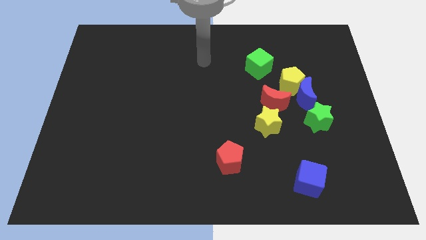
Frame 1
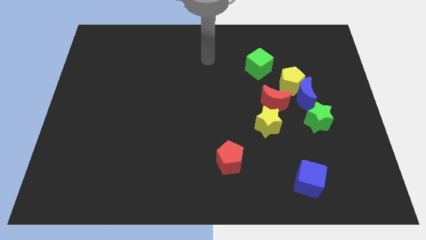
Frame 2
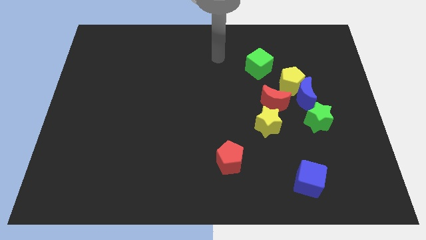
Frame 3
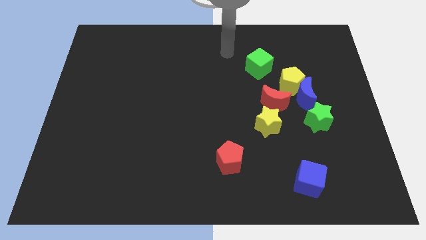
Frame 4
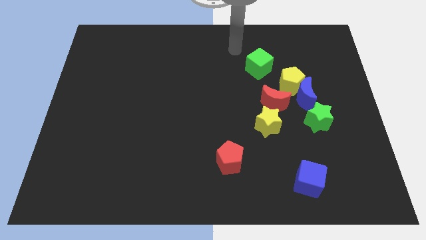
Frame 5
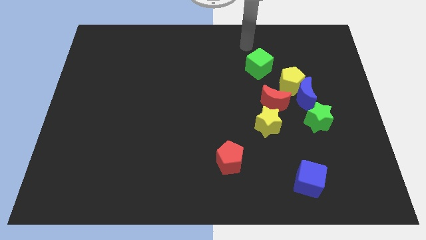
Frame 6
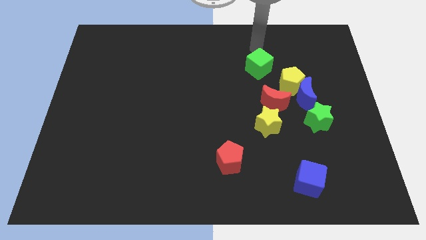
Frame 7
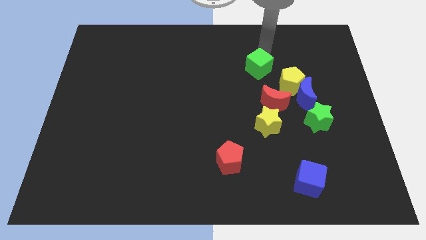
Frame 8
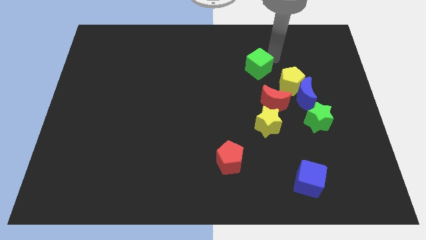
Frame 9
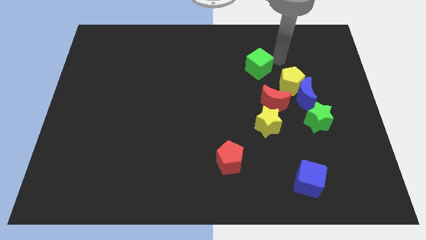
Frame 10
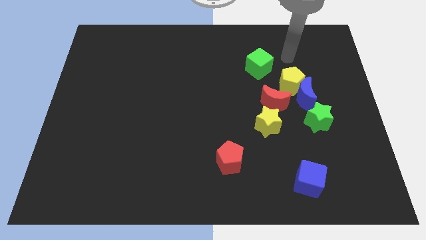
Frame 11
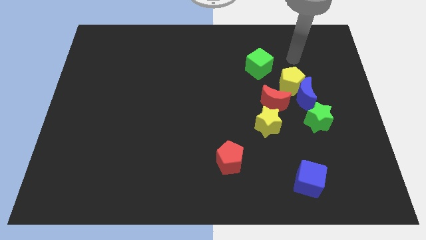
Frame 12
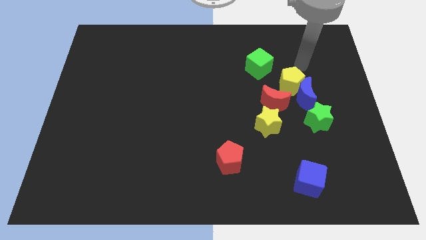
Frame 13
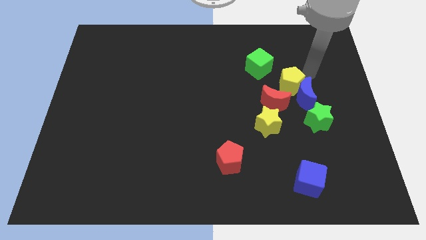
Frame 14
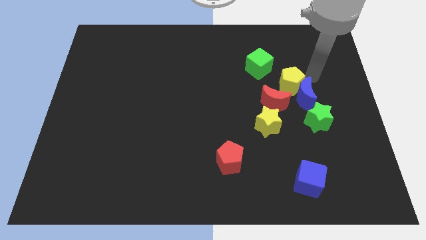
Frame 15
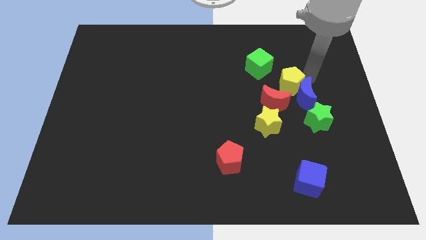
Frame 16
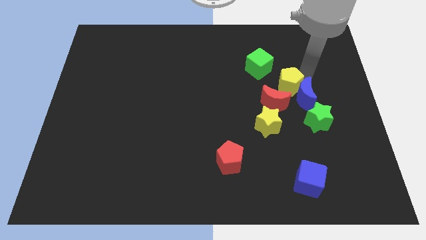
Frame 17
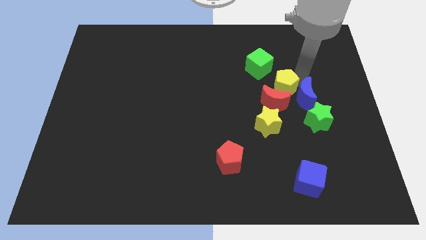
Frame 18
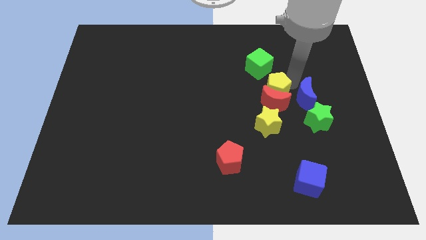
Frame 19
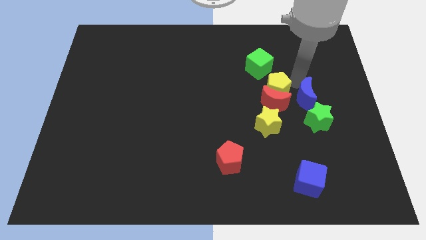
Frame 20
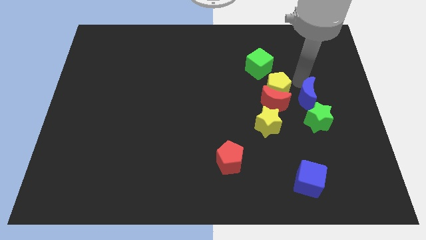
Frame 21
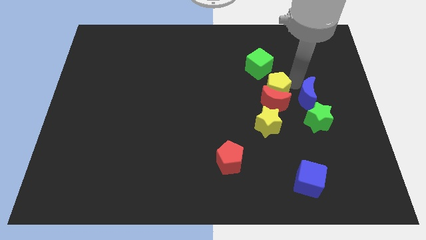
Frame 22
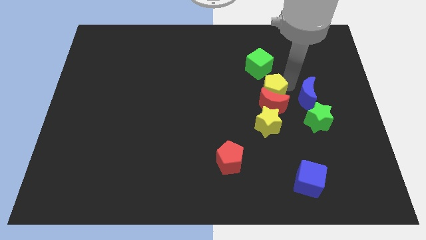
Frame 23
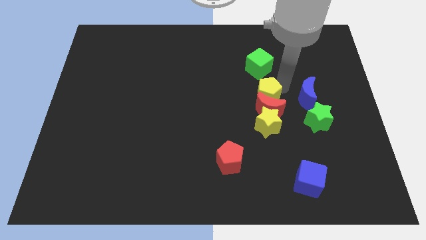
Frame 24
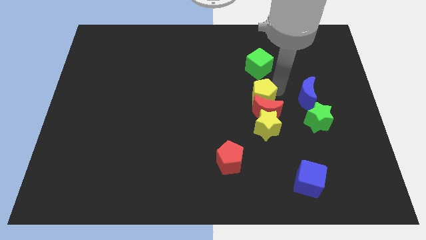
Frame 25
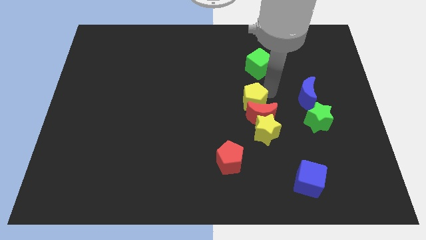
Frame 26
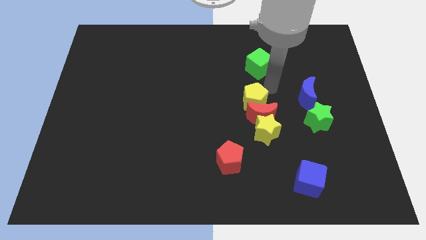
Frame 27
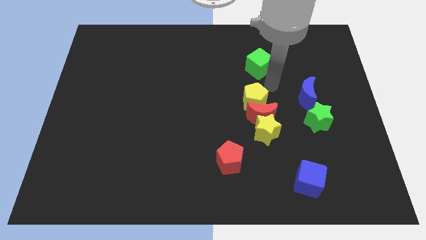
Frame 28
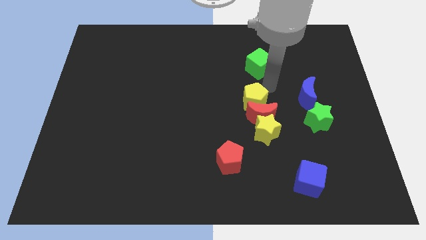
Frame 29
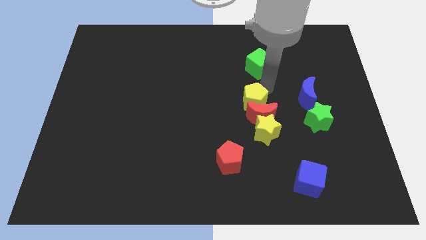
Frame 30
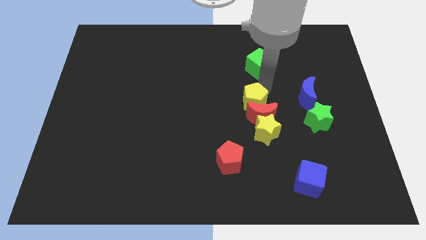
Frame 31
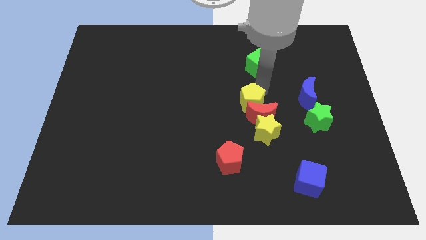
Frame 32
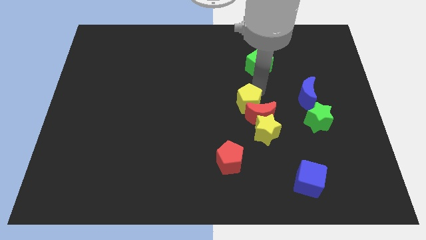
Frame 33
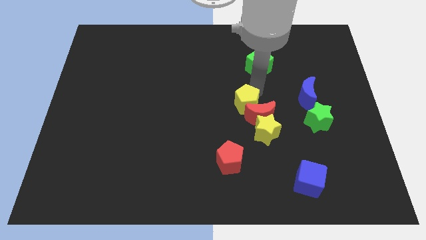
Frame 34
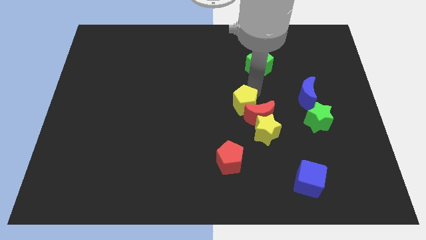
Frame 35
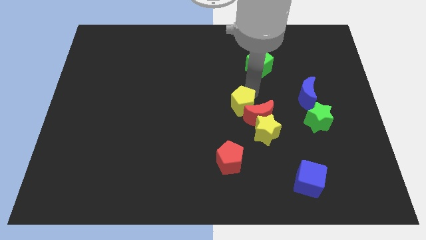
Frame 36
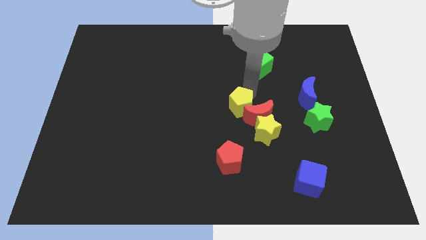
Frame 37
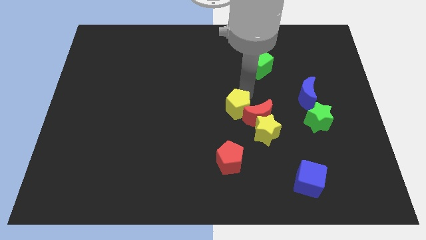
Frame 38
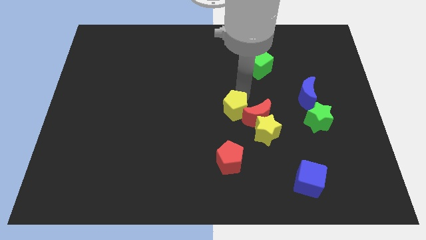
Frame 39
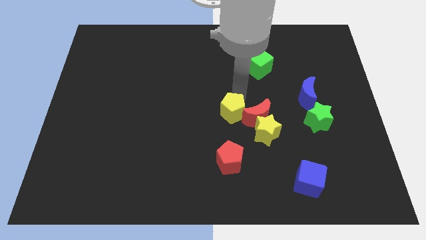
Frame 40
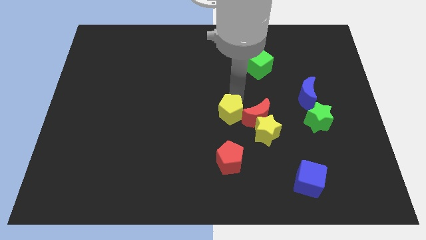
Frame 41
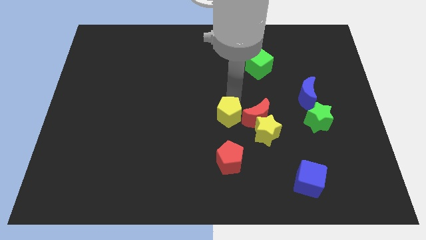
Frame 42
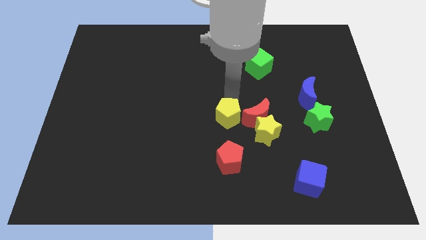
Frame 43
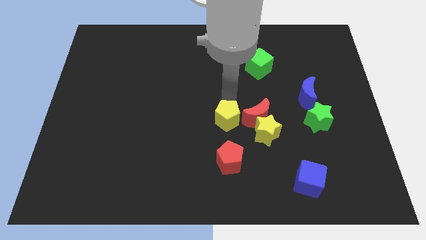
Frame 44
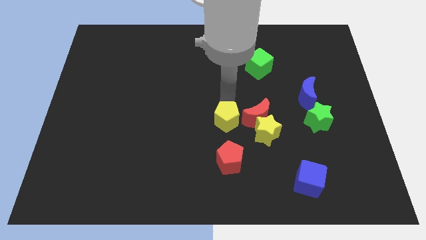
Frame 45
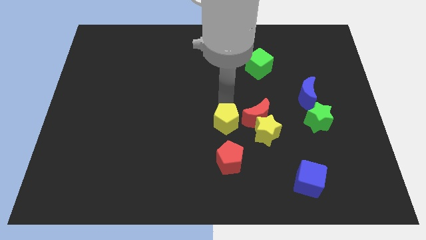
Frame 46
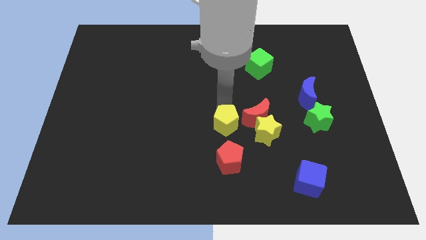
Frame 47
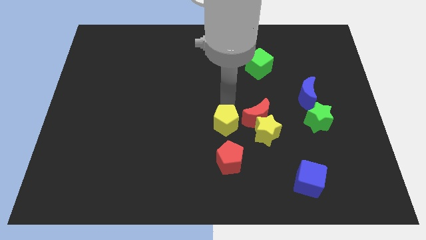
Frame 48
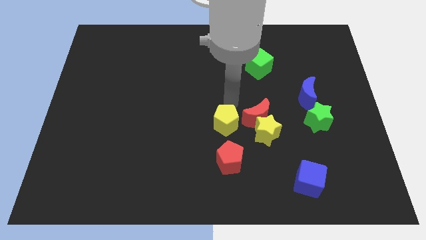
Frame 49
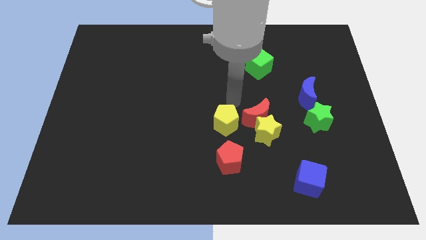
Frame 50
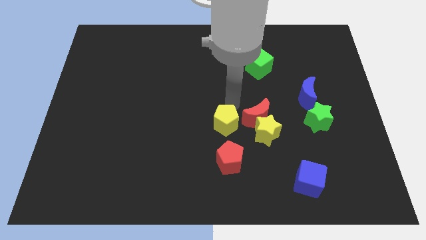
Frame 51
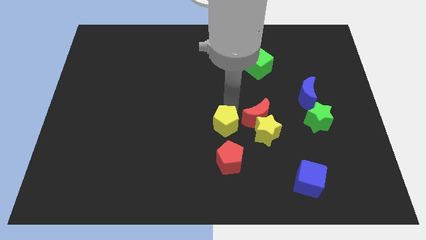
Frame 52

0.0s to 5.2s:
move the yellow pentagon diagonally down and to the left

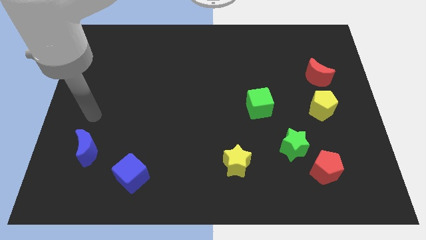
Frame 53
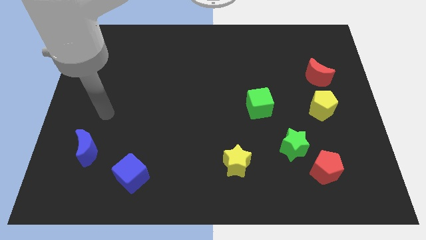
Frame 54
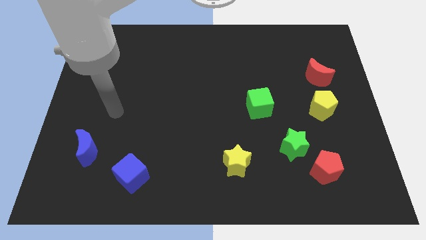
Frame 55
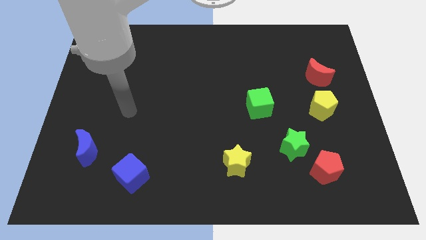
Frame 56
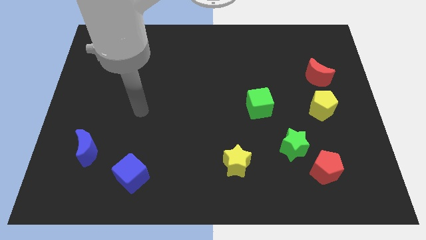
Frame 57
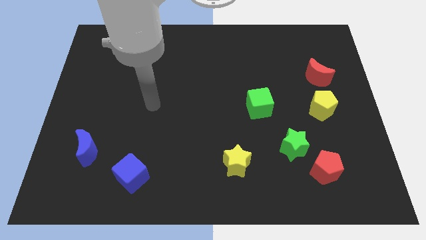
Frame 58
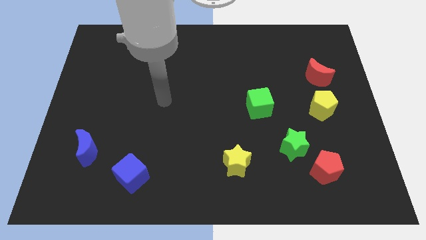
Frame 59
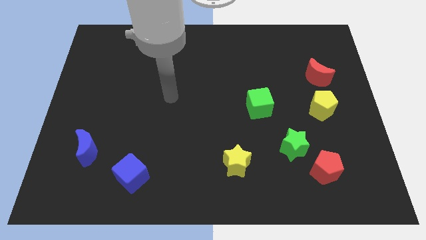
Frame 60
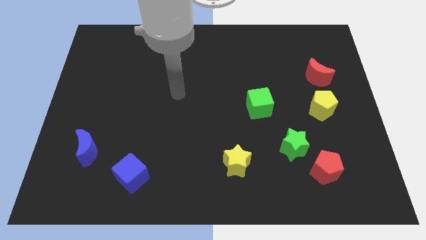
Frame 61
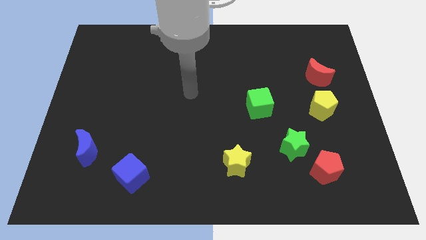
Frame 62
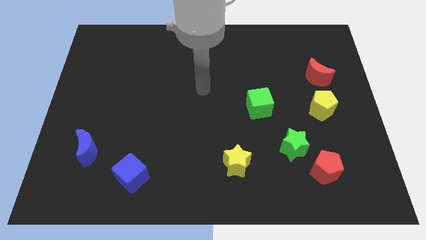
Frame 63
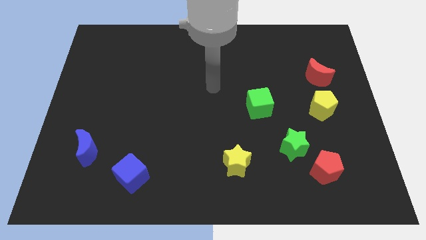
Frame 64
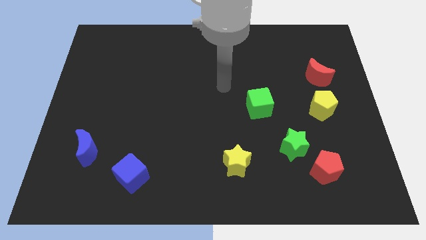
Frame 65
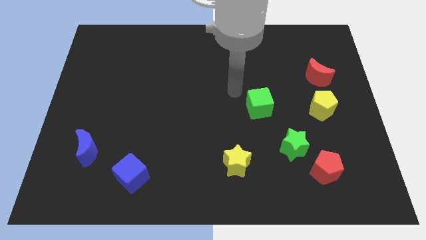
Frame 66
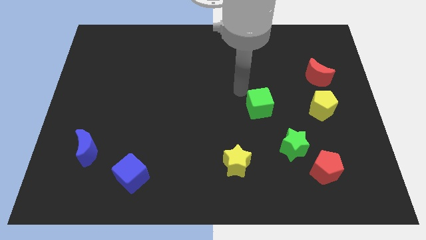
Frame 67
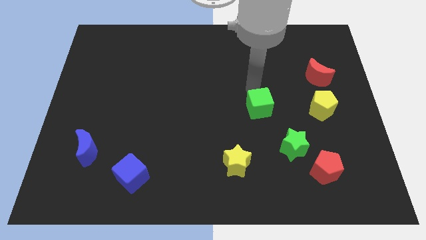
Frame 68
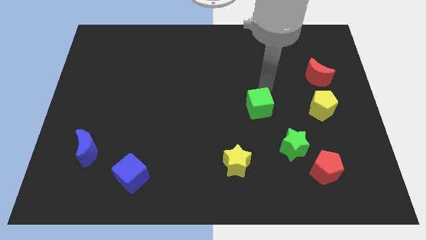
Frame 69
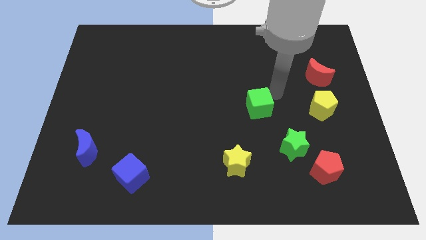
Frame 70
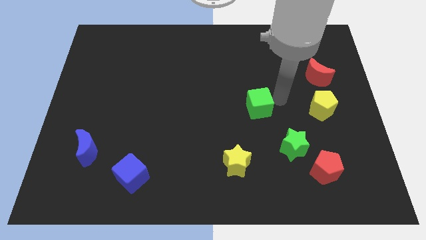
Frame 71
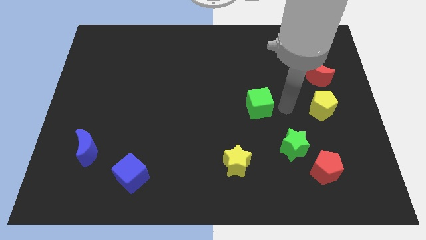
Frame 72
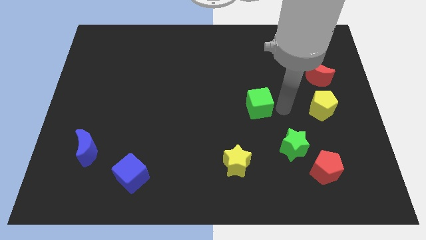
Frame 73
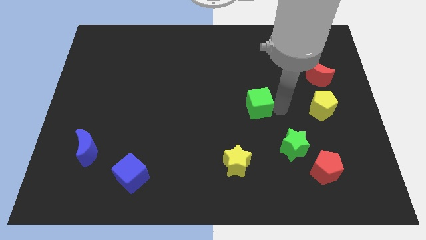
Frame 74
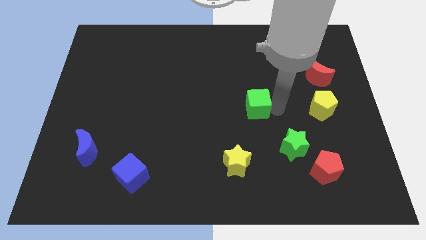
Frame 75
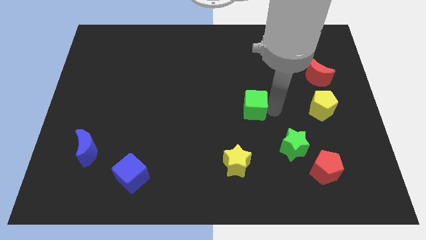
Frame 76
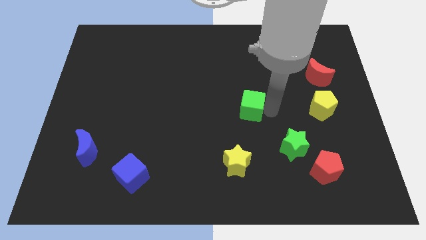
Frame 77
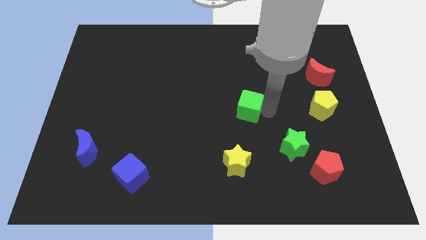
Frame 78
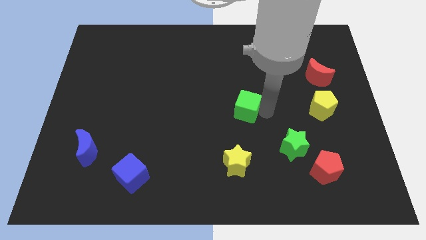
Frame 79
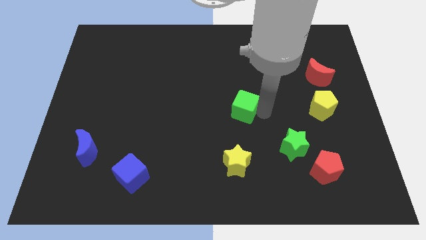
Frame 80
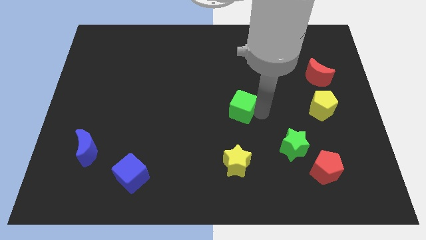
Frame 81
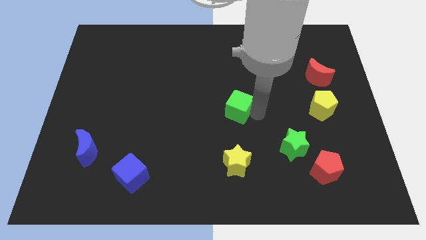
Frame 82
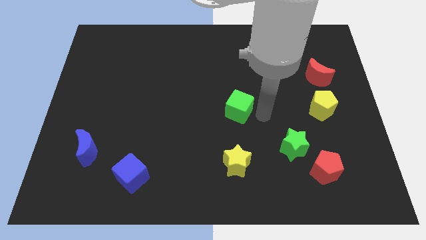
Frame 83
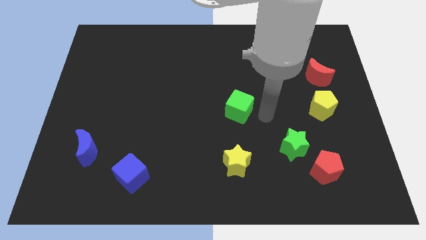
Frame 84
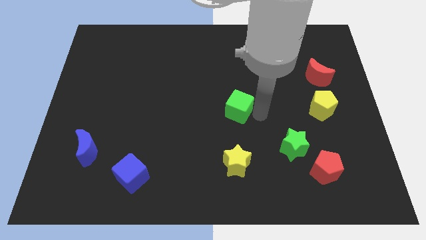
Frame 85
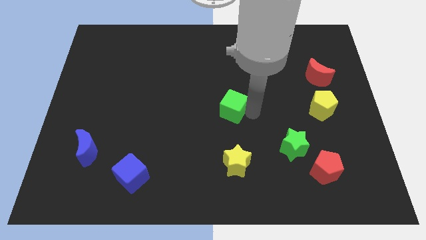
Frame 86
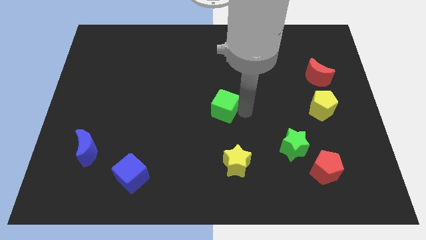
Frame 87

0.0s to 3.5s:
slightly slide the green cube left
